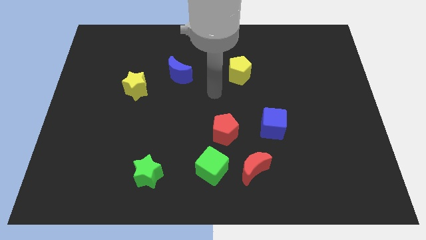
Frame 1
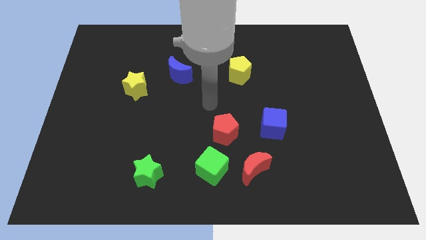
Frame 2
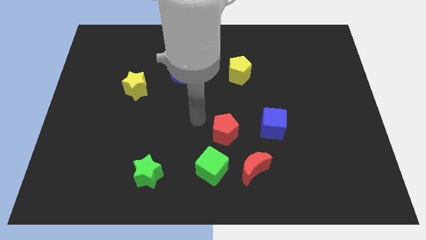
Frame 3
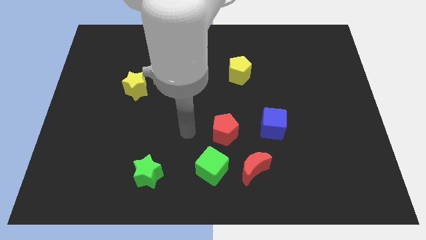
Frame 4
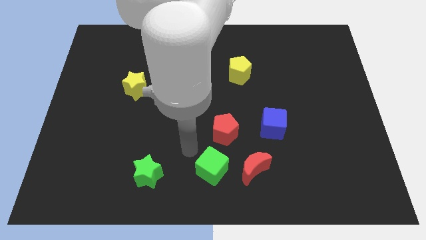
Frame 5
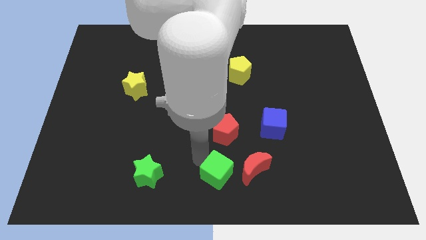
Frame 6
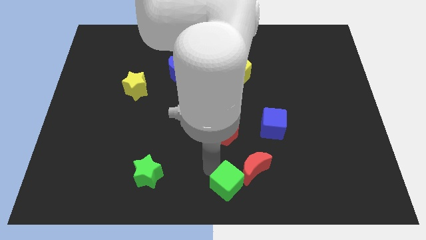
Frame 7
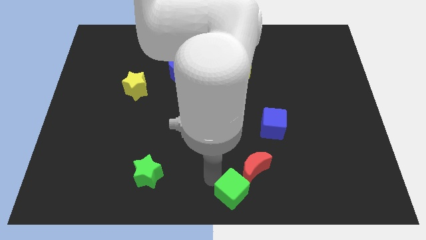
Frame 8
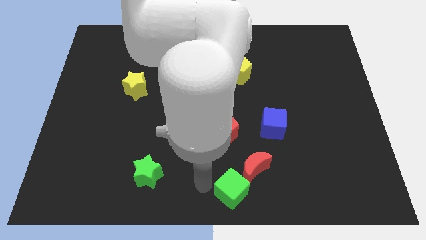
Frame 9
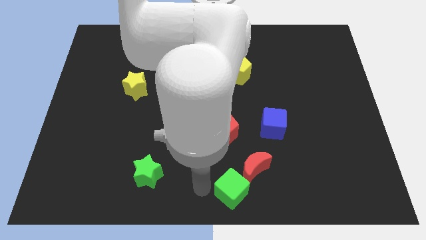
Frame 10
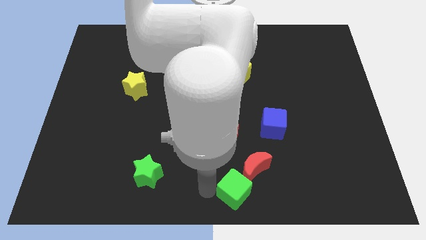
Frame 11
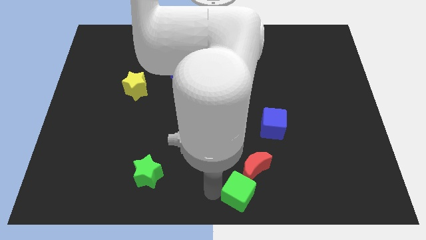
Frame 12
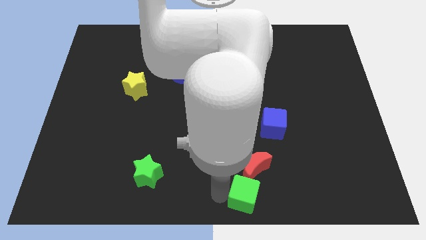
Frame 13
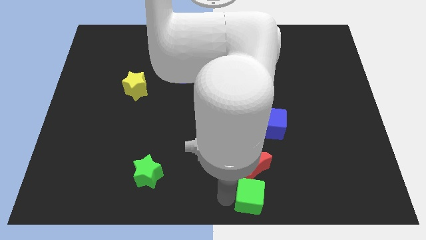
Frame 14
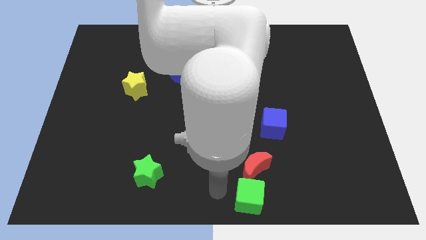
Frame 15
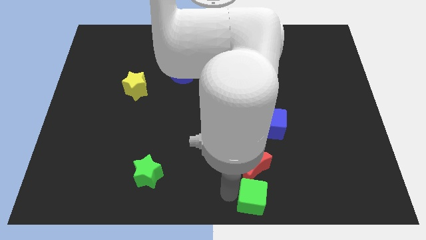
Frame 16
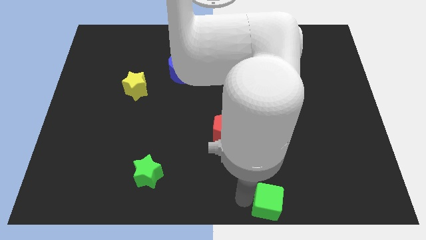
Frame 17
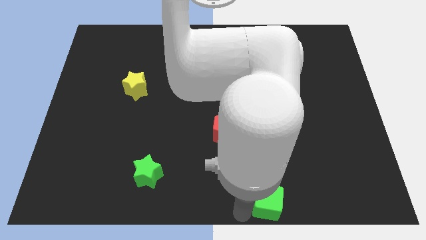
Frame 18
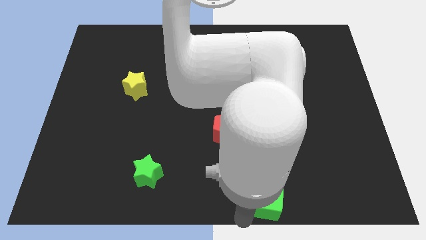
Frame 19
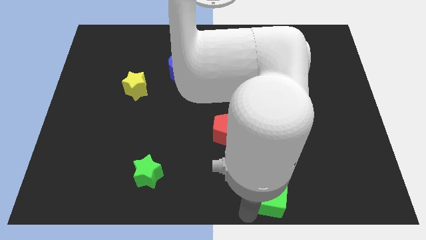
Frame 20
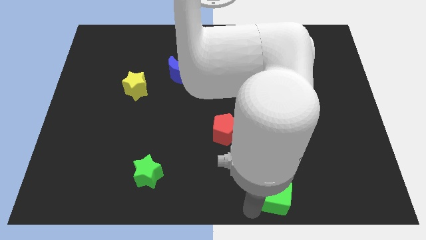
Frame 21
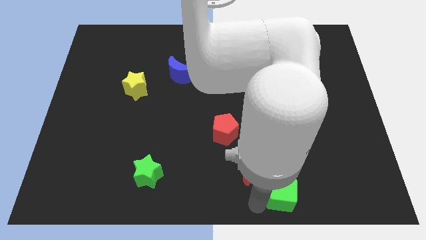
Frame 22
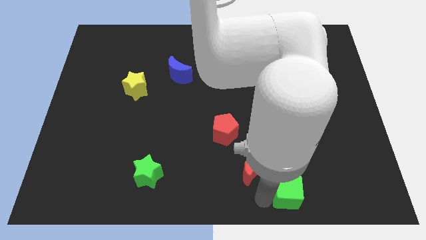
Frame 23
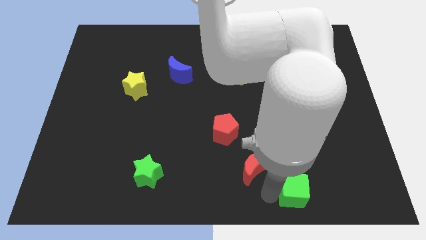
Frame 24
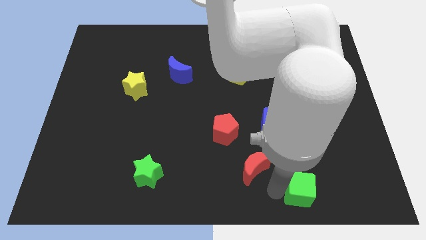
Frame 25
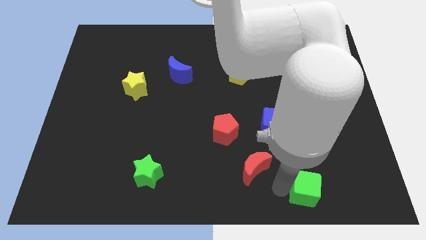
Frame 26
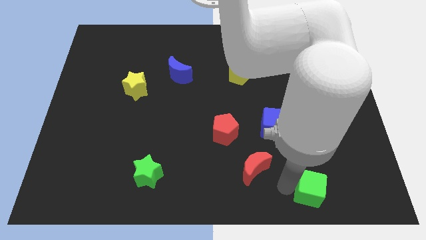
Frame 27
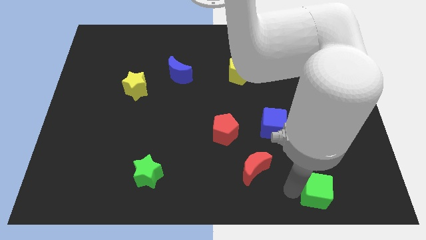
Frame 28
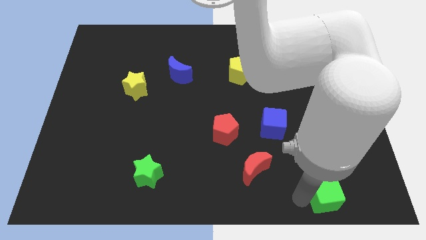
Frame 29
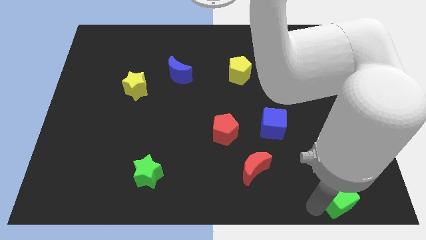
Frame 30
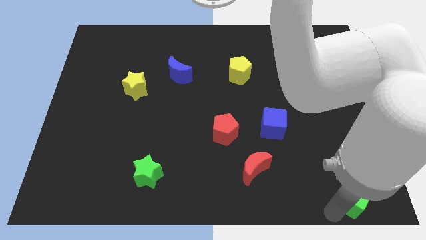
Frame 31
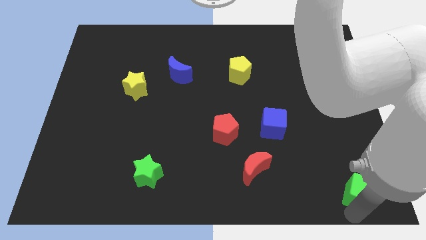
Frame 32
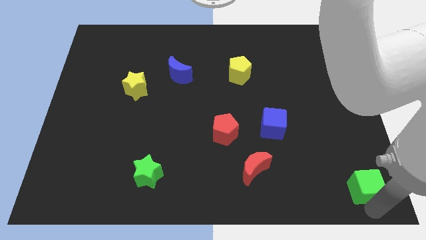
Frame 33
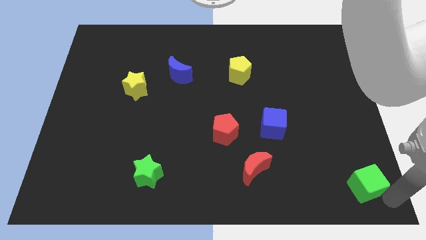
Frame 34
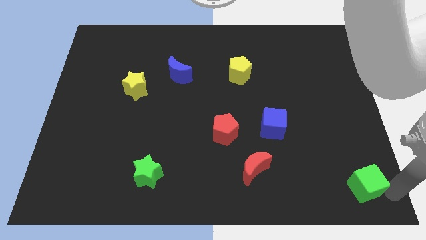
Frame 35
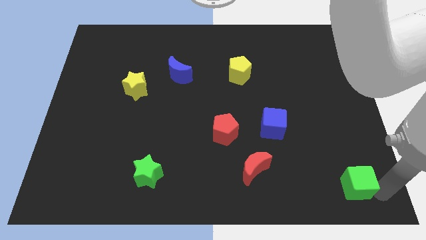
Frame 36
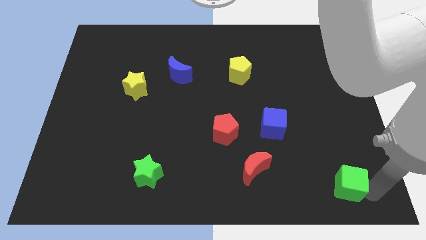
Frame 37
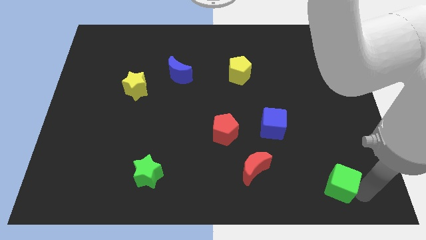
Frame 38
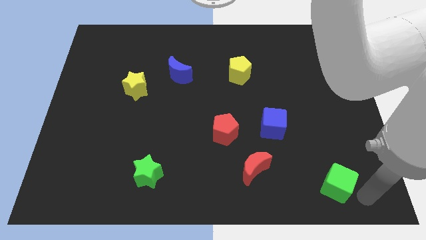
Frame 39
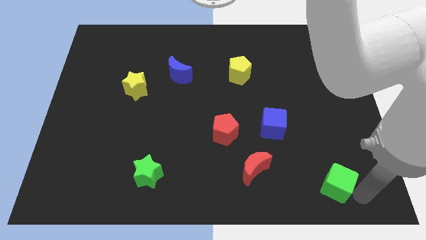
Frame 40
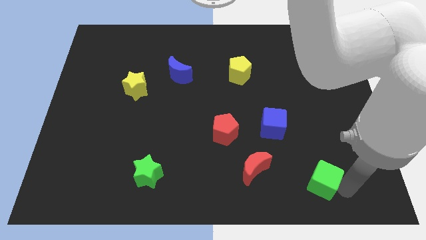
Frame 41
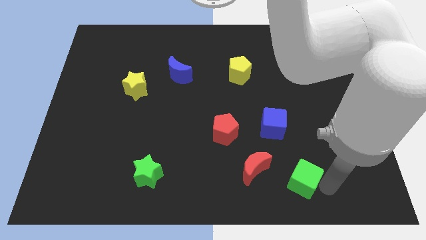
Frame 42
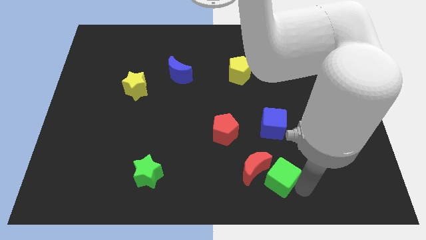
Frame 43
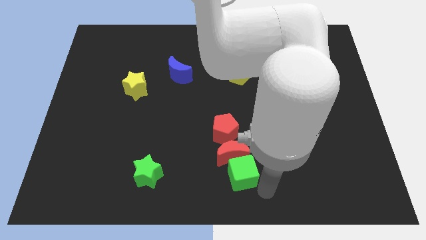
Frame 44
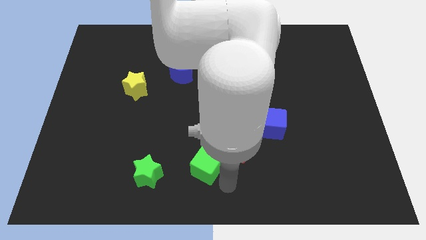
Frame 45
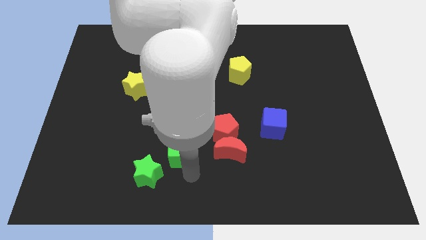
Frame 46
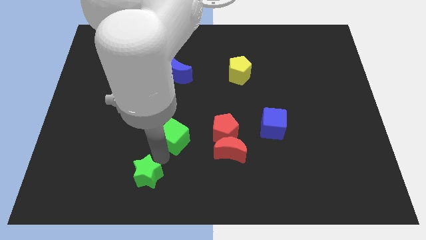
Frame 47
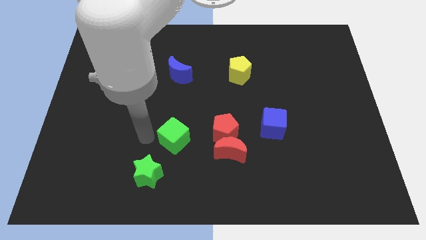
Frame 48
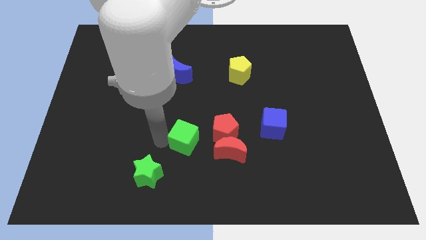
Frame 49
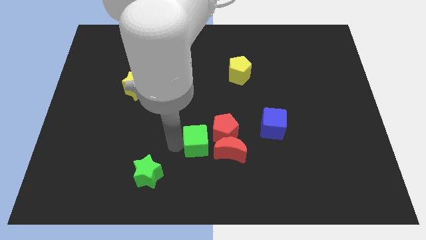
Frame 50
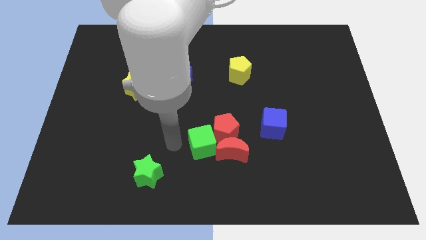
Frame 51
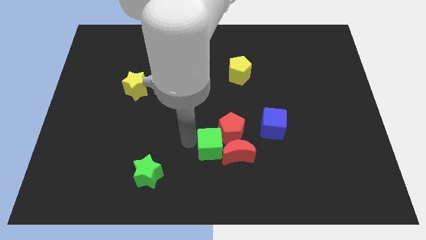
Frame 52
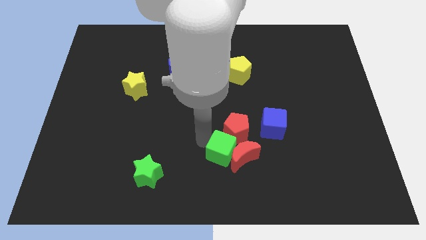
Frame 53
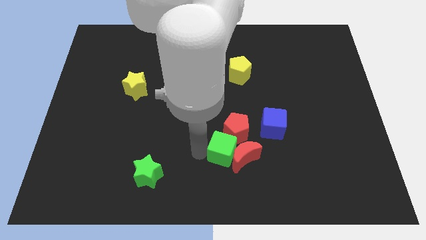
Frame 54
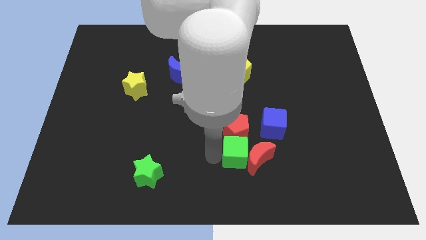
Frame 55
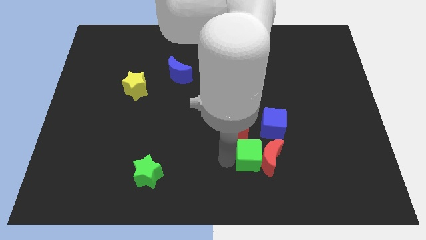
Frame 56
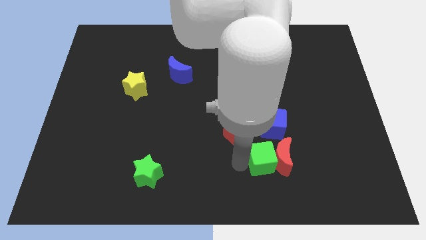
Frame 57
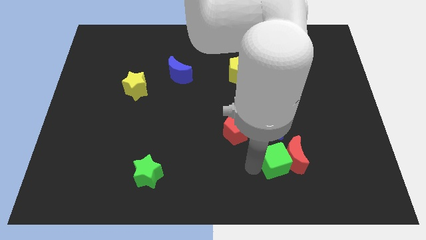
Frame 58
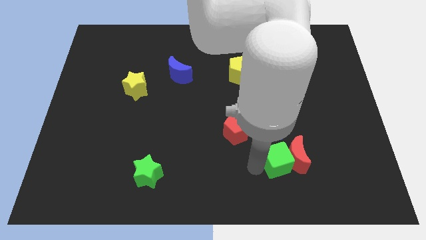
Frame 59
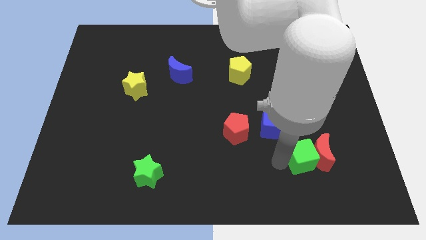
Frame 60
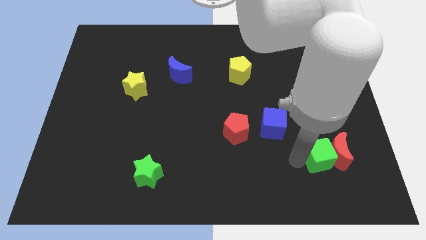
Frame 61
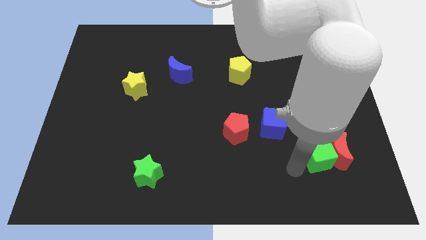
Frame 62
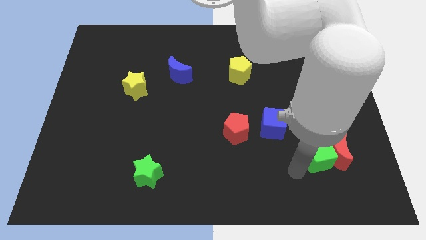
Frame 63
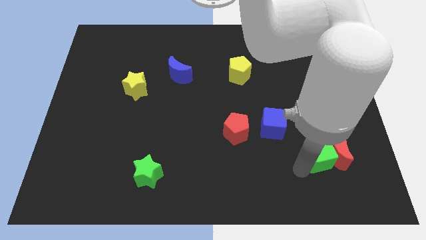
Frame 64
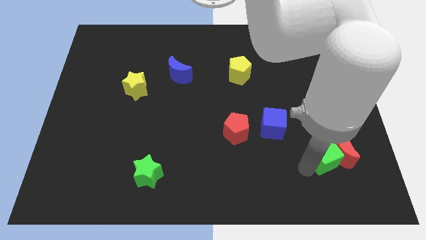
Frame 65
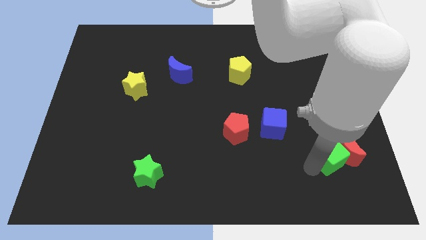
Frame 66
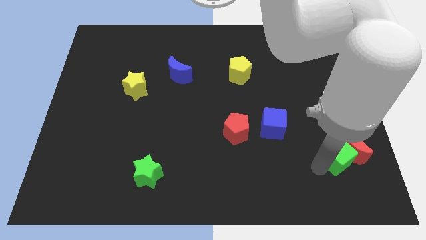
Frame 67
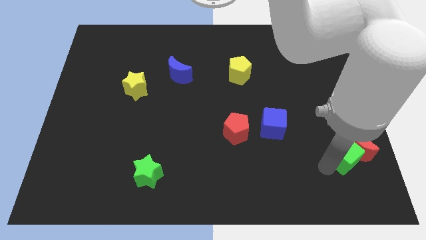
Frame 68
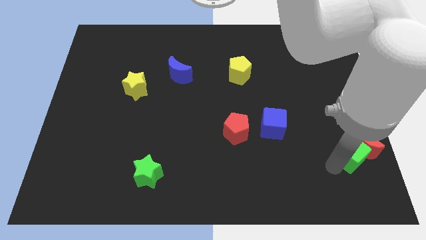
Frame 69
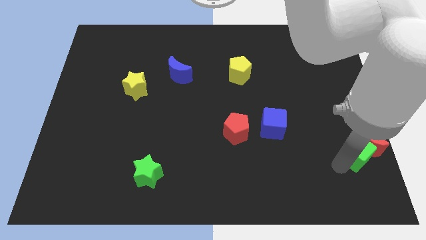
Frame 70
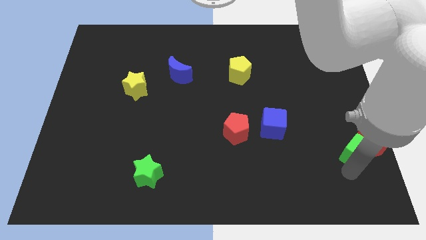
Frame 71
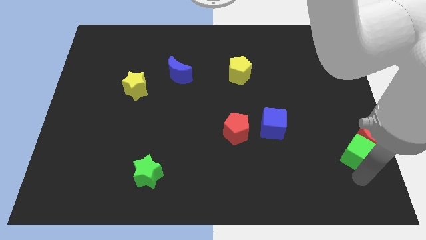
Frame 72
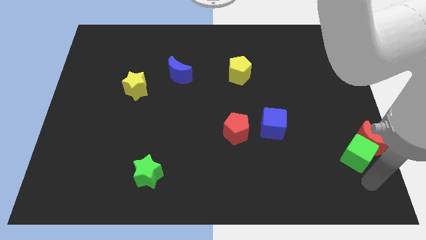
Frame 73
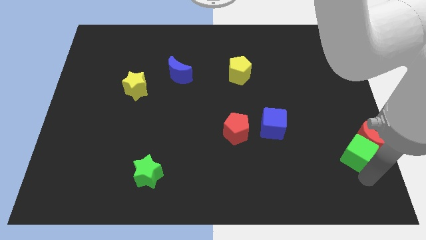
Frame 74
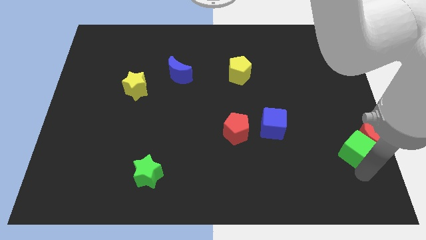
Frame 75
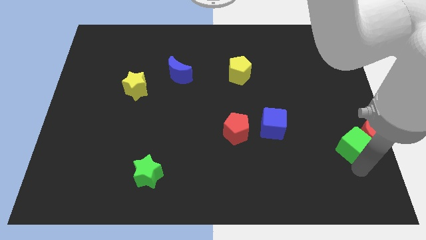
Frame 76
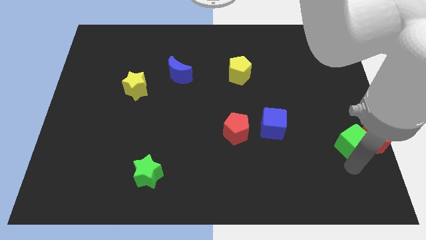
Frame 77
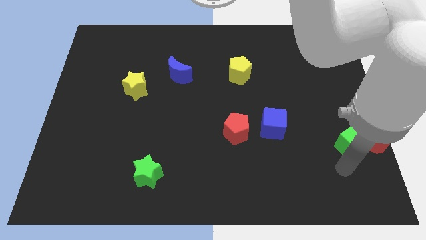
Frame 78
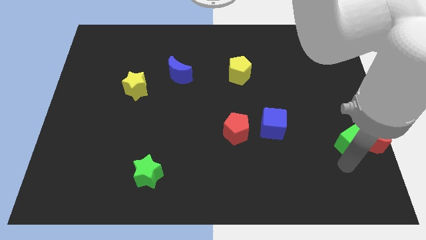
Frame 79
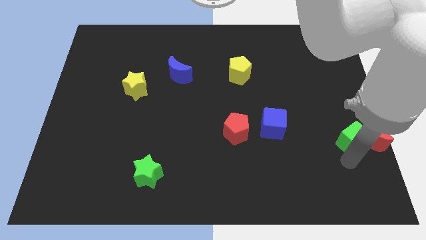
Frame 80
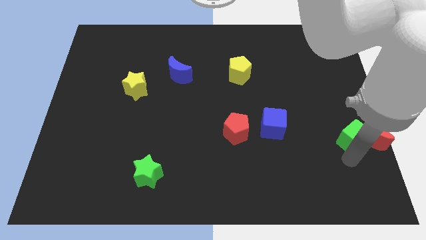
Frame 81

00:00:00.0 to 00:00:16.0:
push the green cube to the right side of the board
